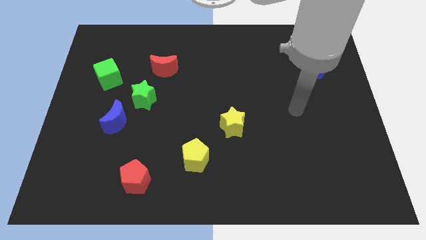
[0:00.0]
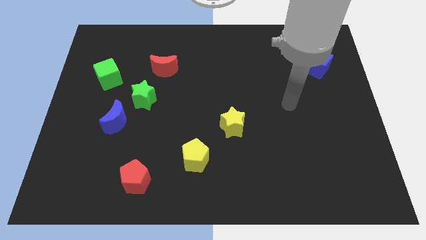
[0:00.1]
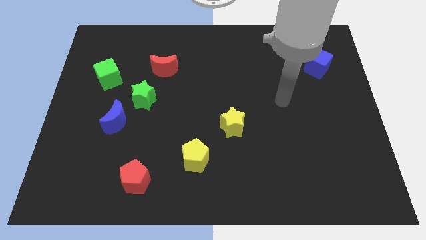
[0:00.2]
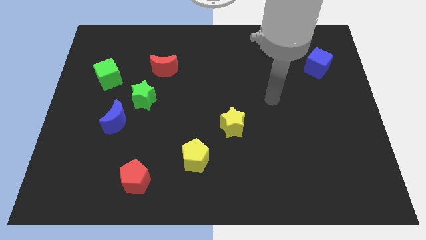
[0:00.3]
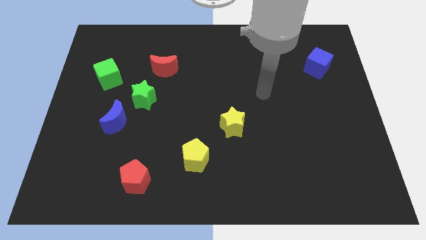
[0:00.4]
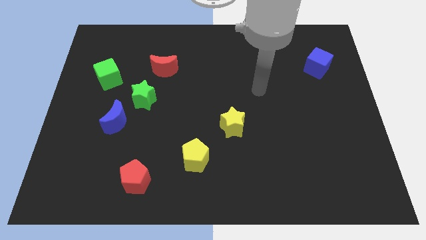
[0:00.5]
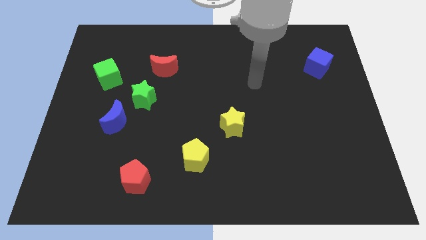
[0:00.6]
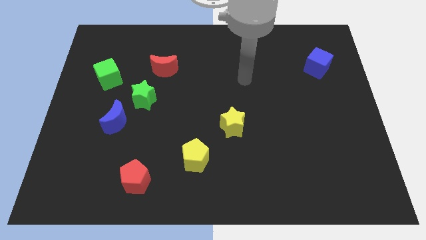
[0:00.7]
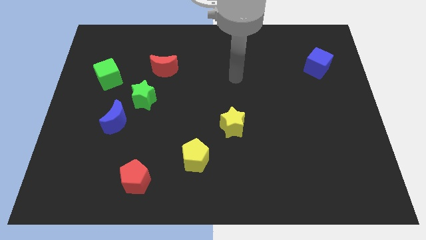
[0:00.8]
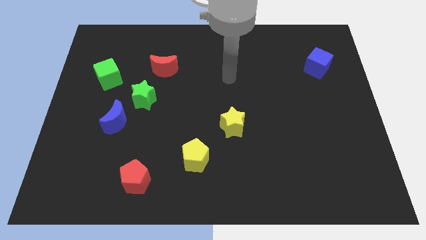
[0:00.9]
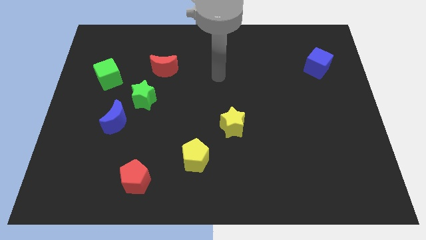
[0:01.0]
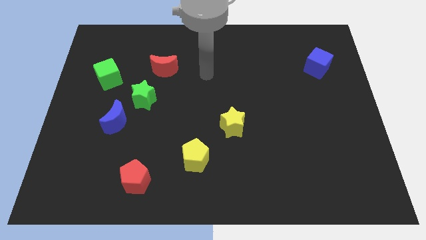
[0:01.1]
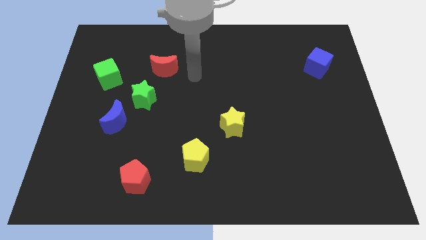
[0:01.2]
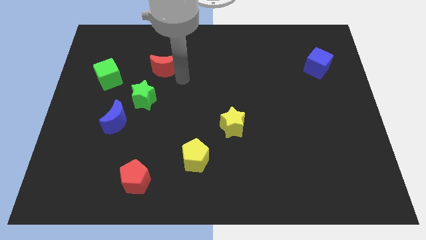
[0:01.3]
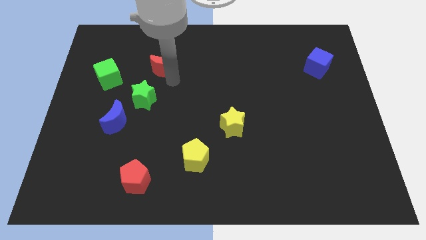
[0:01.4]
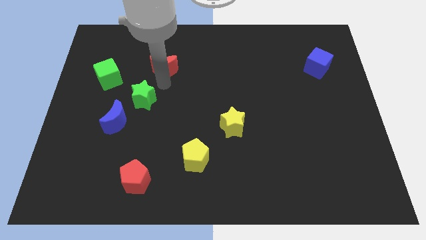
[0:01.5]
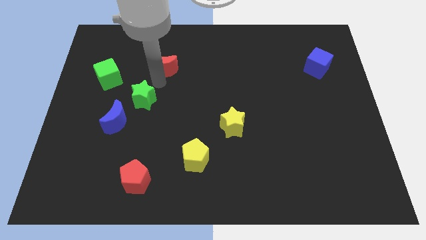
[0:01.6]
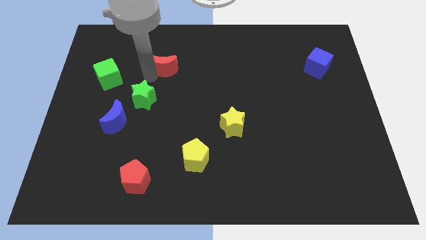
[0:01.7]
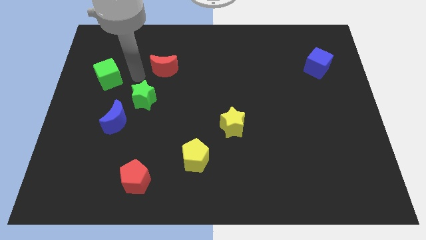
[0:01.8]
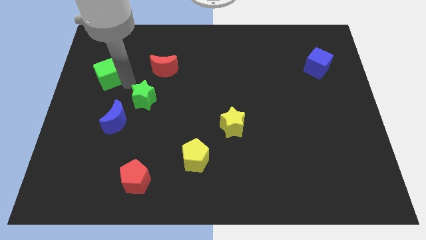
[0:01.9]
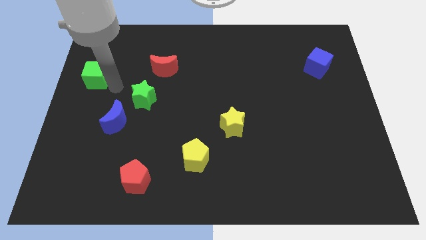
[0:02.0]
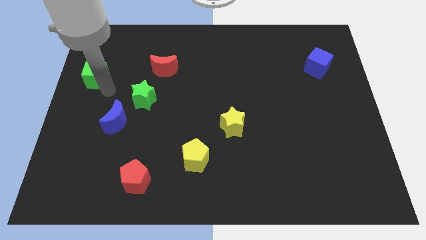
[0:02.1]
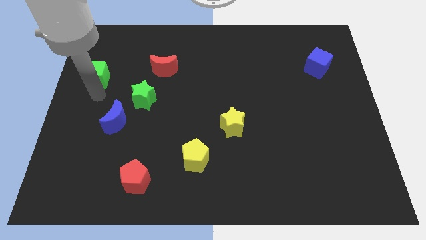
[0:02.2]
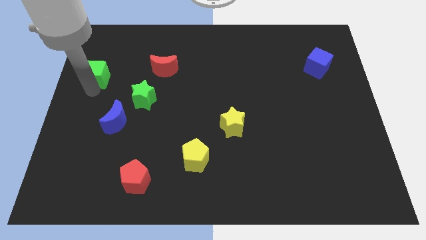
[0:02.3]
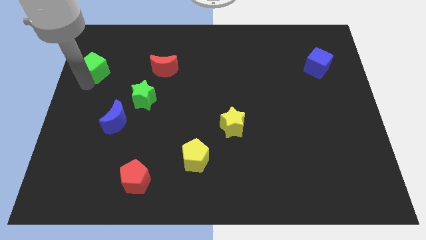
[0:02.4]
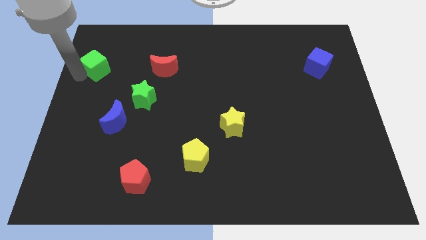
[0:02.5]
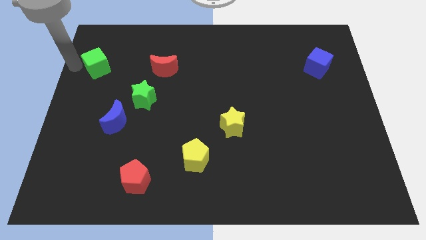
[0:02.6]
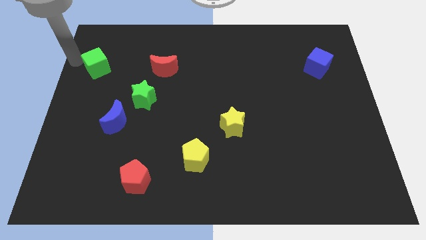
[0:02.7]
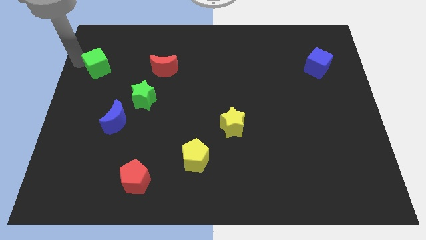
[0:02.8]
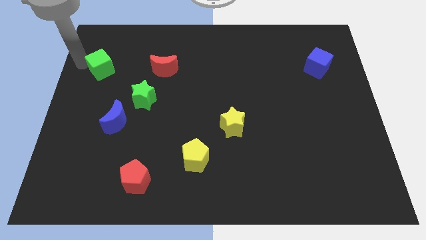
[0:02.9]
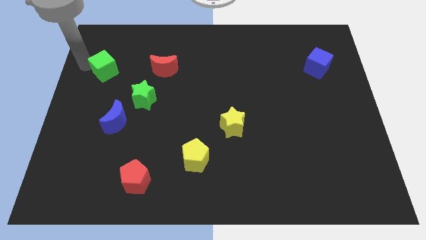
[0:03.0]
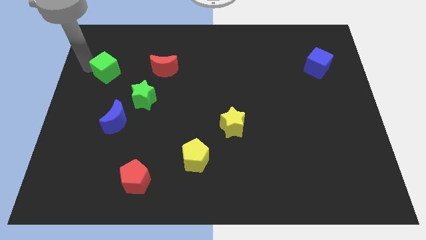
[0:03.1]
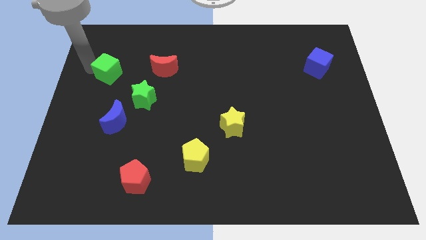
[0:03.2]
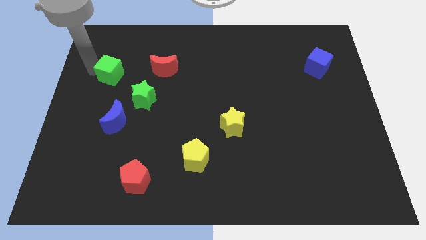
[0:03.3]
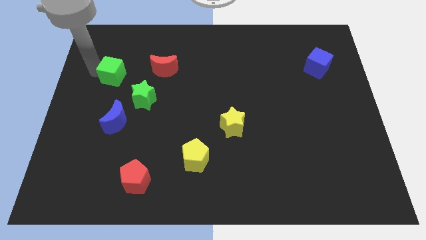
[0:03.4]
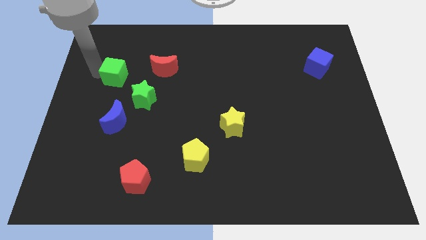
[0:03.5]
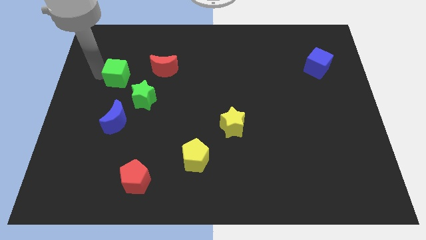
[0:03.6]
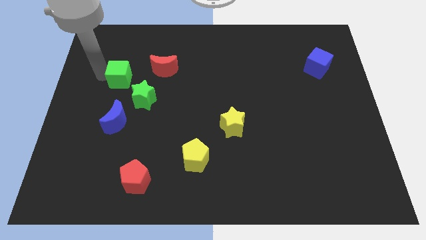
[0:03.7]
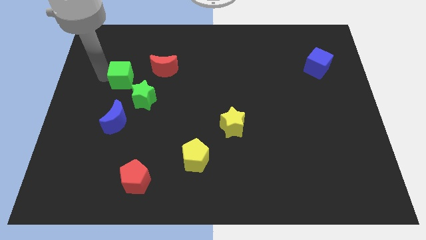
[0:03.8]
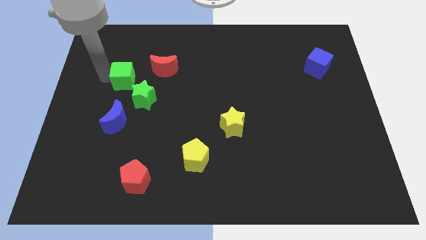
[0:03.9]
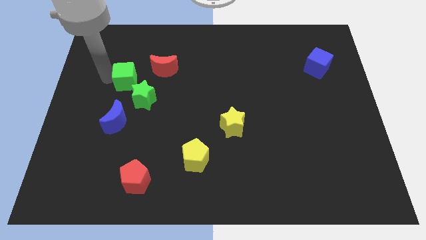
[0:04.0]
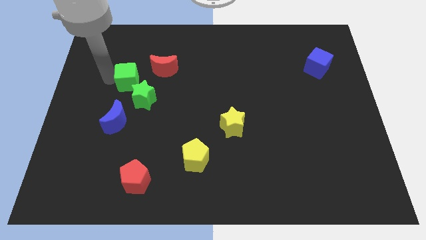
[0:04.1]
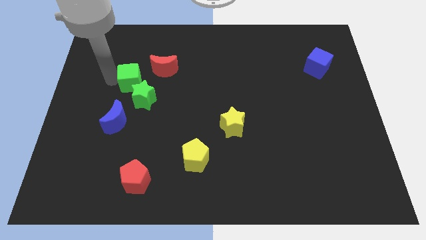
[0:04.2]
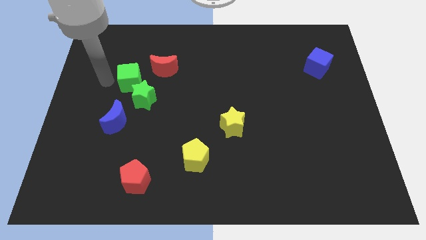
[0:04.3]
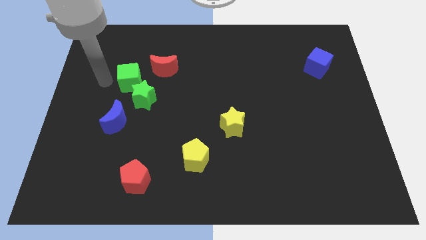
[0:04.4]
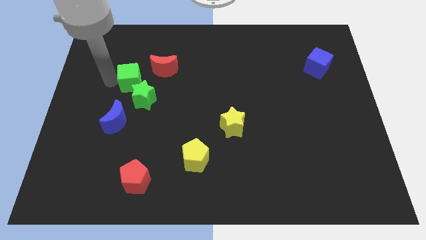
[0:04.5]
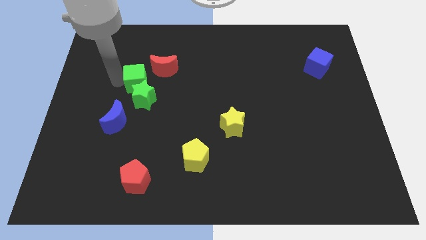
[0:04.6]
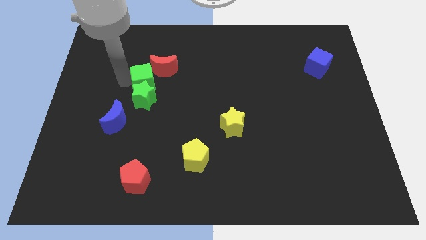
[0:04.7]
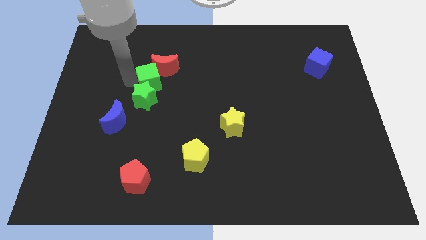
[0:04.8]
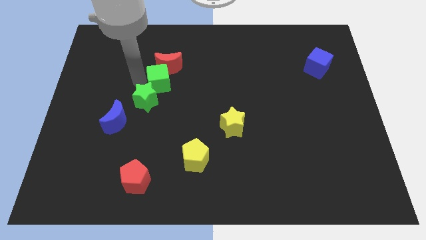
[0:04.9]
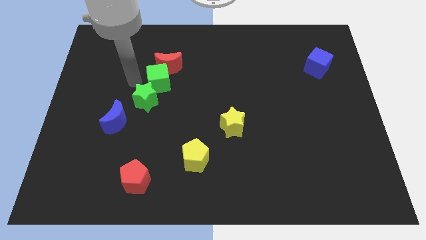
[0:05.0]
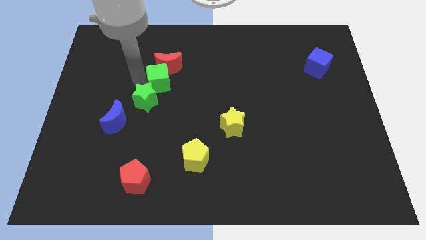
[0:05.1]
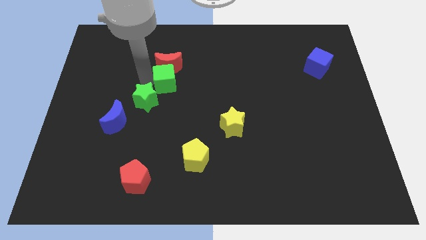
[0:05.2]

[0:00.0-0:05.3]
push the green cube to the bottom right side of the red moon
